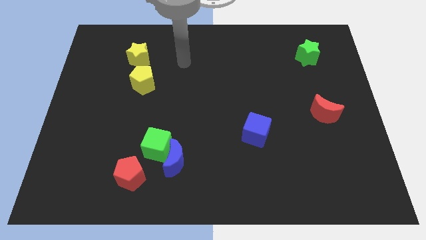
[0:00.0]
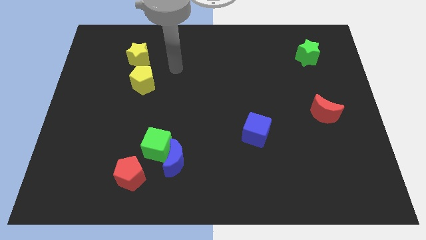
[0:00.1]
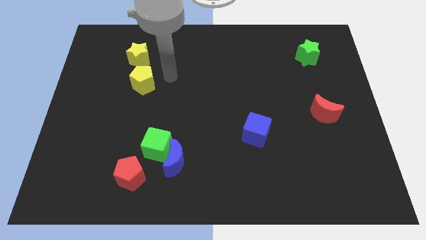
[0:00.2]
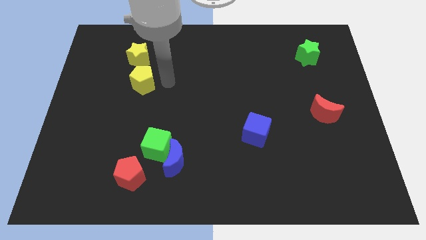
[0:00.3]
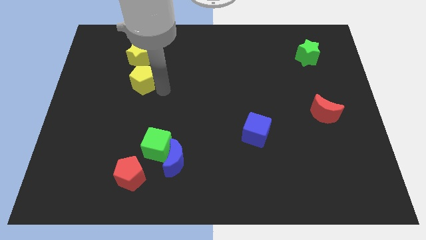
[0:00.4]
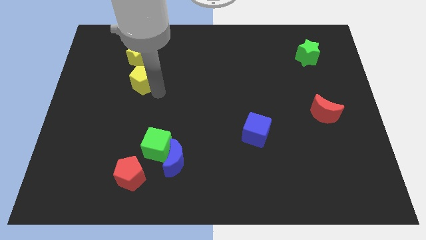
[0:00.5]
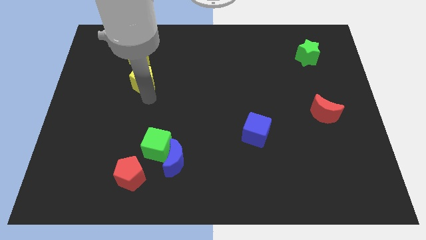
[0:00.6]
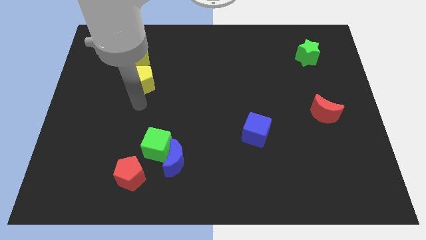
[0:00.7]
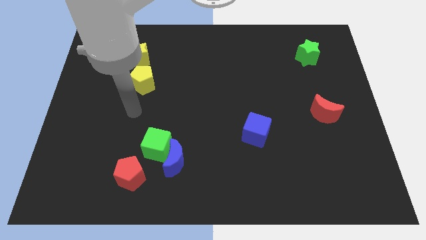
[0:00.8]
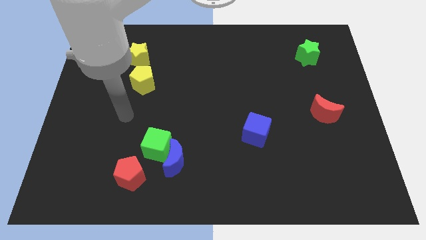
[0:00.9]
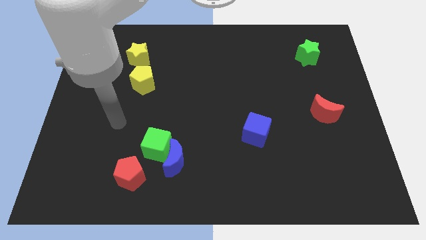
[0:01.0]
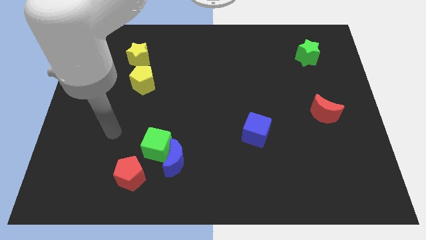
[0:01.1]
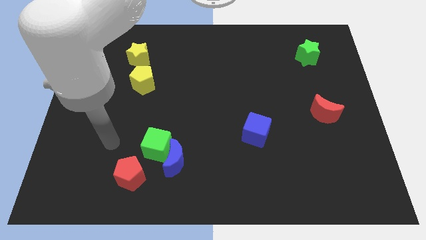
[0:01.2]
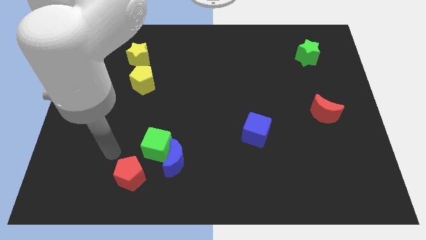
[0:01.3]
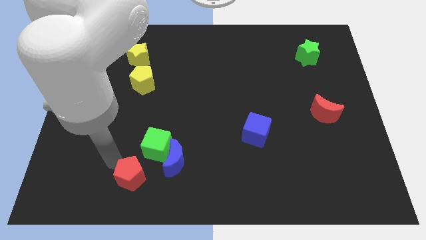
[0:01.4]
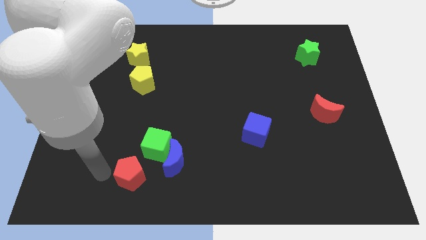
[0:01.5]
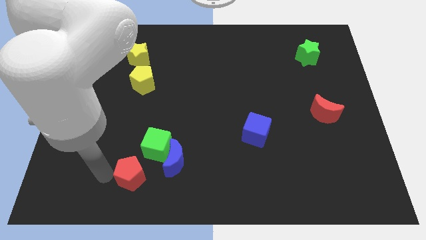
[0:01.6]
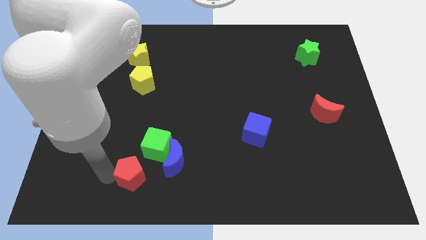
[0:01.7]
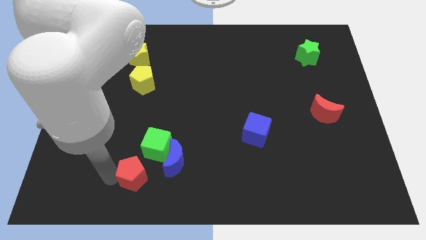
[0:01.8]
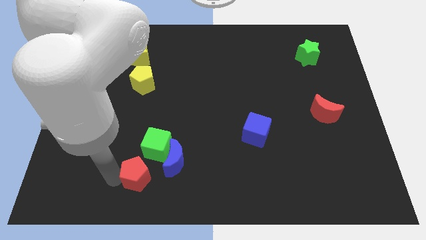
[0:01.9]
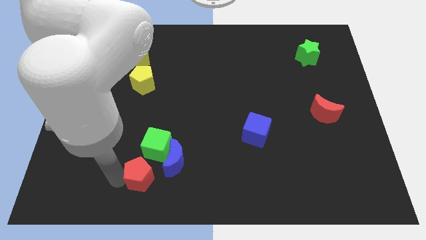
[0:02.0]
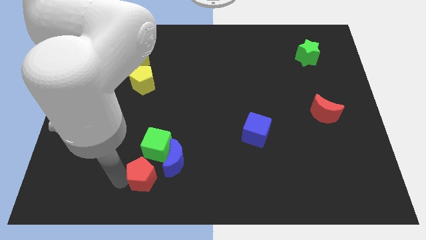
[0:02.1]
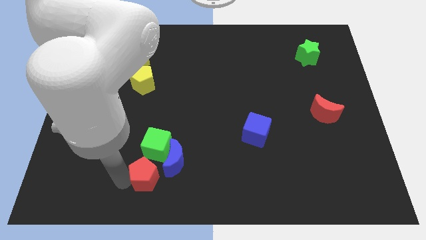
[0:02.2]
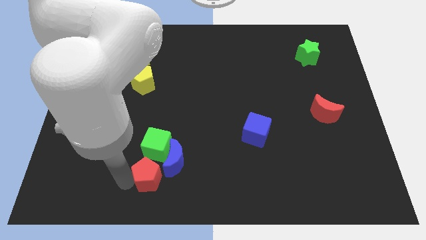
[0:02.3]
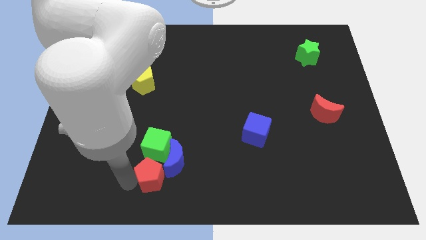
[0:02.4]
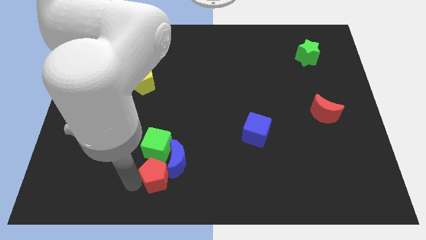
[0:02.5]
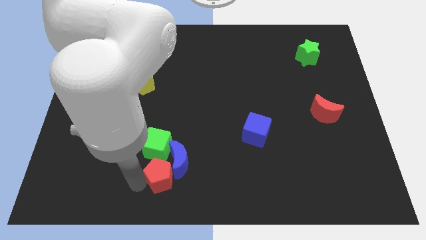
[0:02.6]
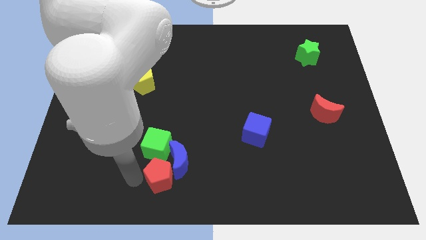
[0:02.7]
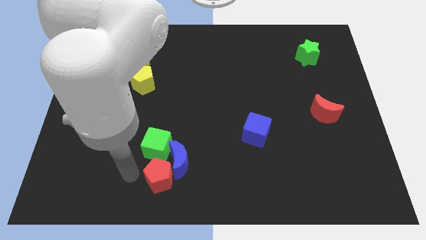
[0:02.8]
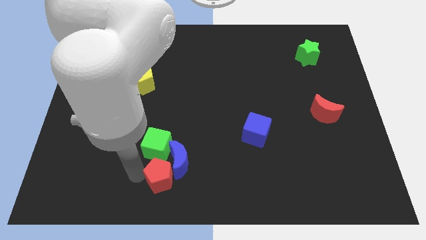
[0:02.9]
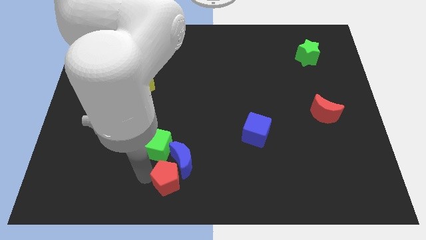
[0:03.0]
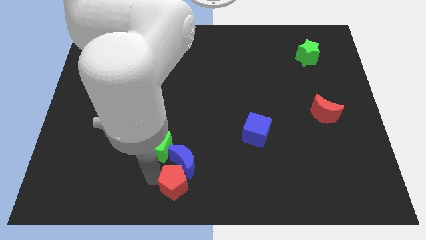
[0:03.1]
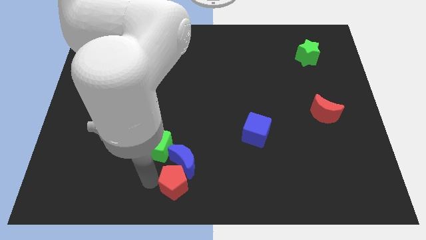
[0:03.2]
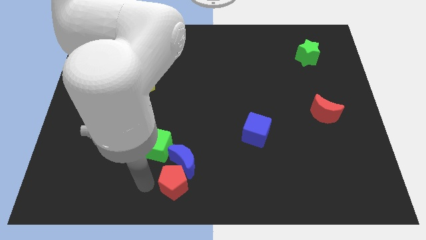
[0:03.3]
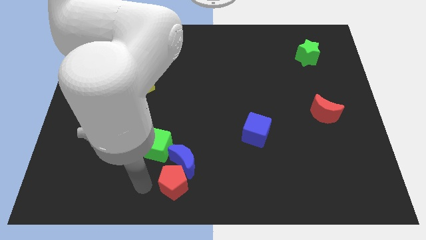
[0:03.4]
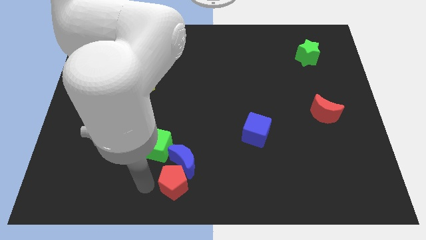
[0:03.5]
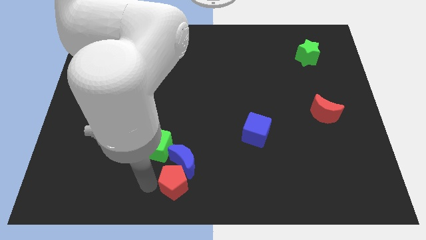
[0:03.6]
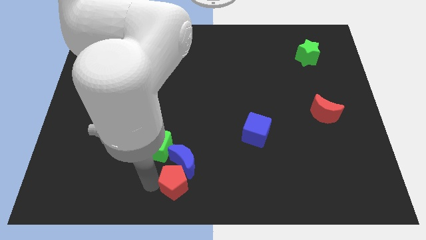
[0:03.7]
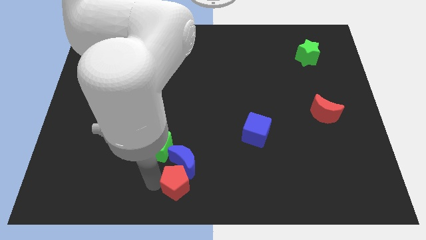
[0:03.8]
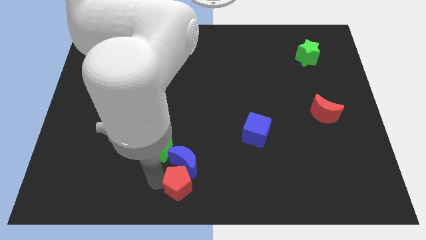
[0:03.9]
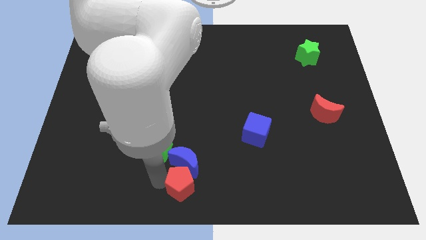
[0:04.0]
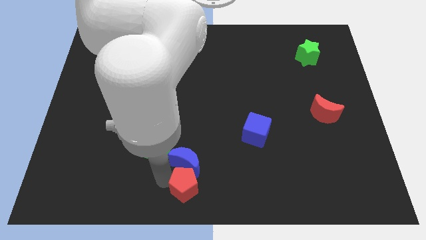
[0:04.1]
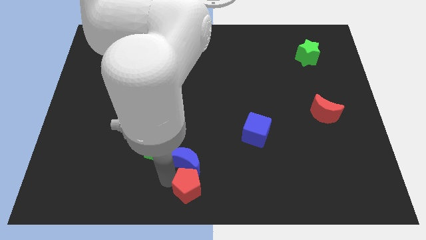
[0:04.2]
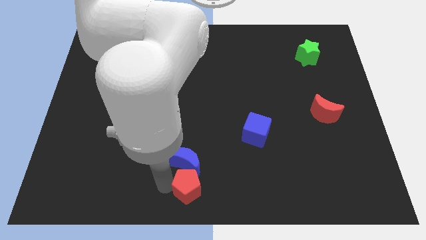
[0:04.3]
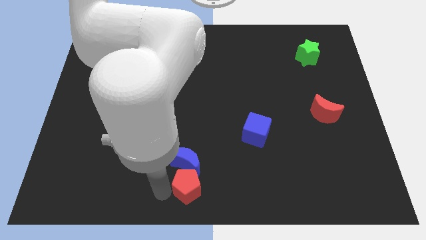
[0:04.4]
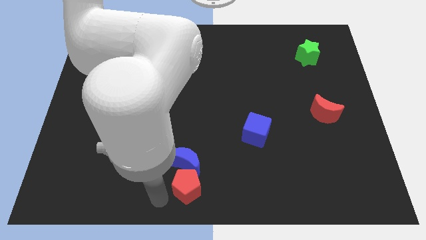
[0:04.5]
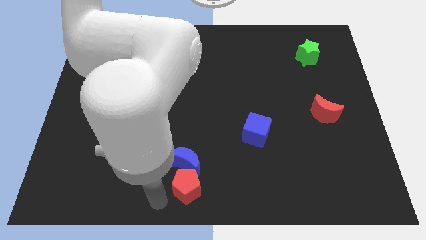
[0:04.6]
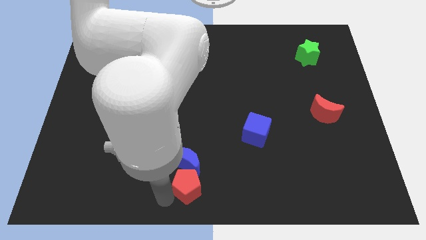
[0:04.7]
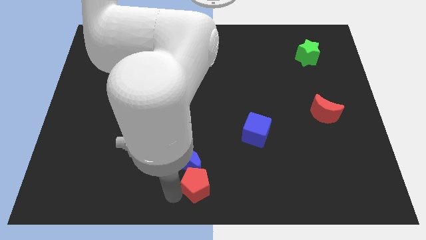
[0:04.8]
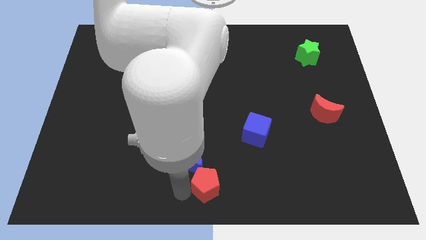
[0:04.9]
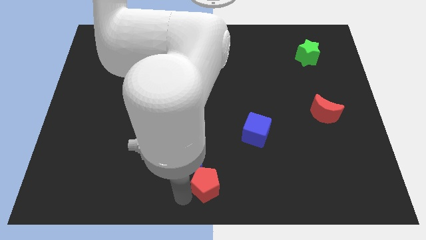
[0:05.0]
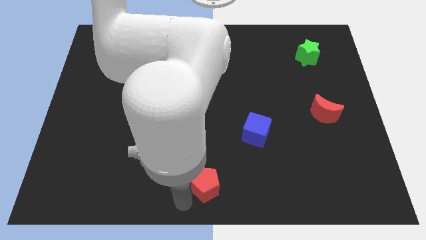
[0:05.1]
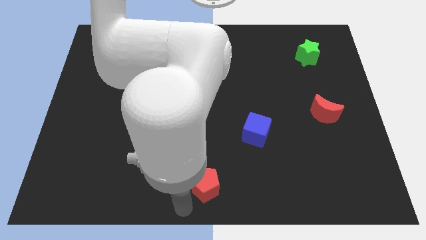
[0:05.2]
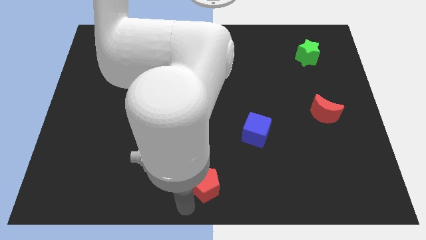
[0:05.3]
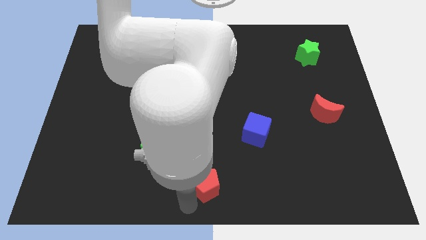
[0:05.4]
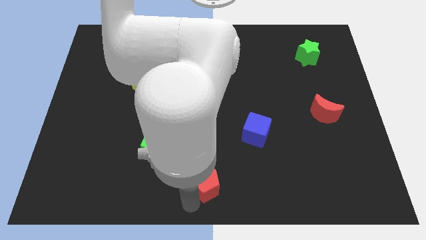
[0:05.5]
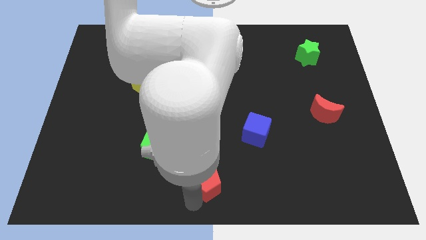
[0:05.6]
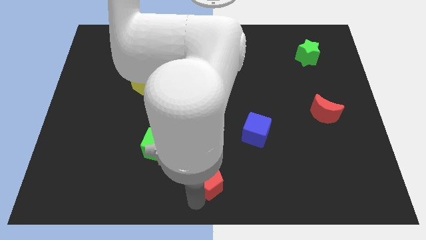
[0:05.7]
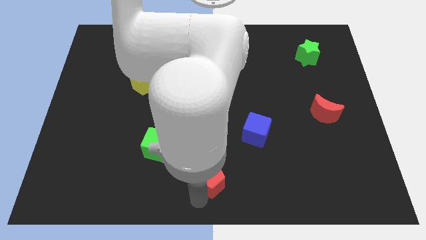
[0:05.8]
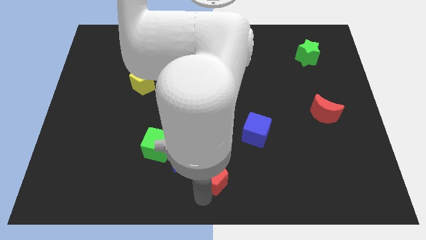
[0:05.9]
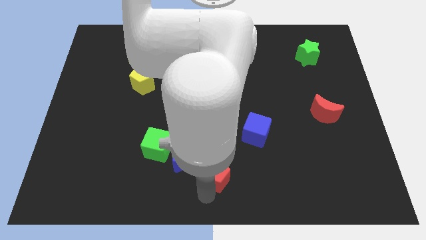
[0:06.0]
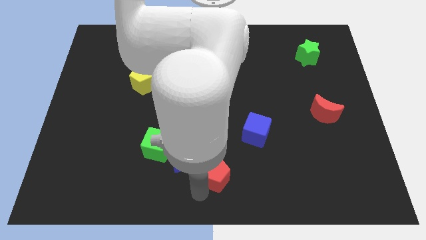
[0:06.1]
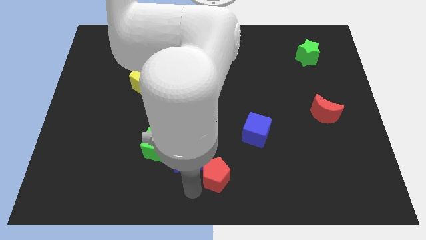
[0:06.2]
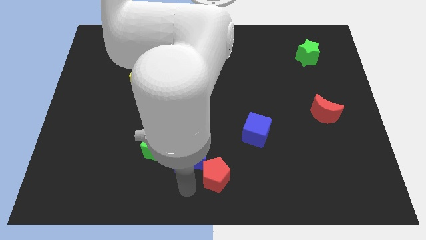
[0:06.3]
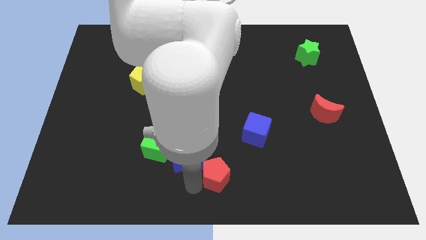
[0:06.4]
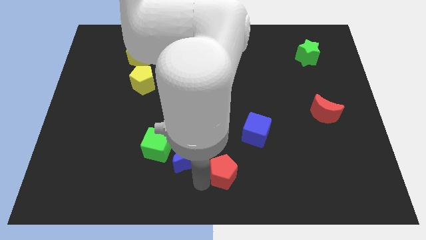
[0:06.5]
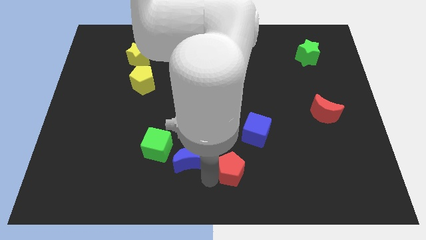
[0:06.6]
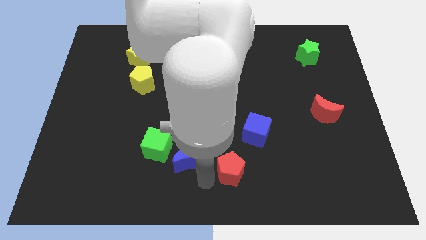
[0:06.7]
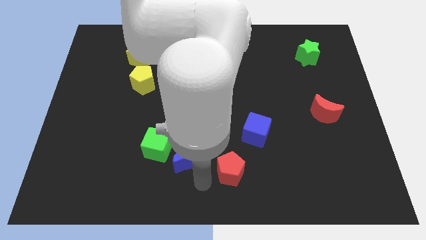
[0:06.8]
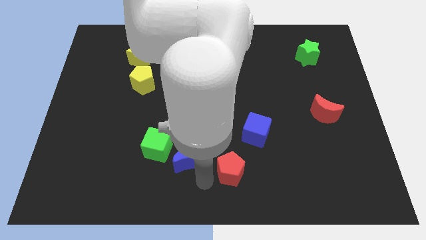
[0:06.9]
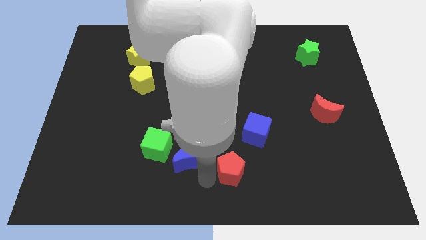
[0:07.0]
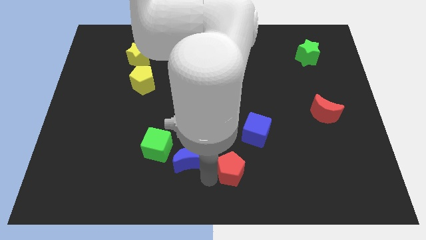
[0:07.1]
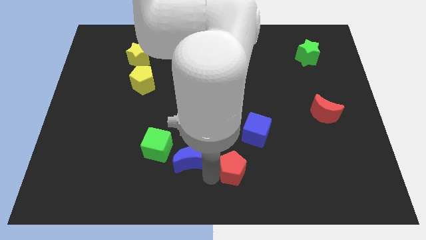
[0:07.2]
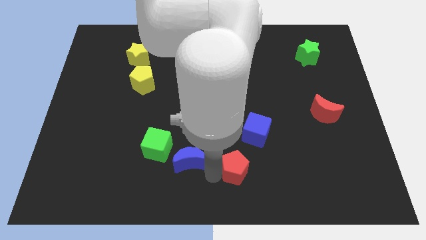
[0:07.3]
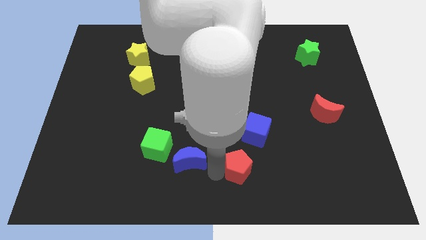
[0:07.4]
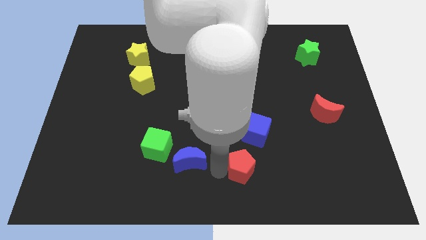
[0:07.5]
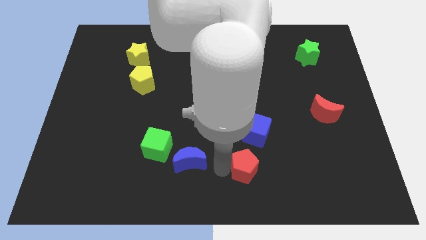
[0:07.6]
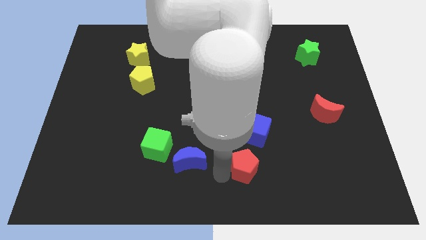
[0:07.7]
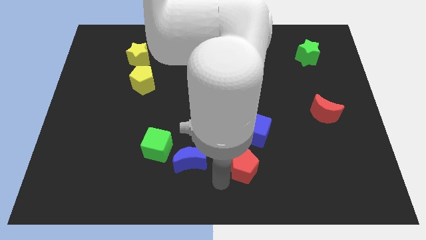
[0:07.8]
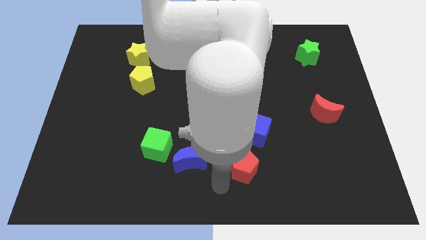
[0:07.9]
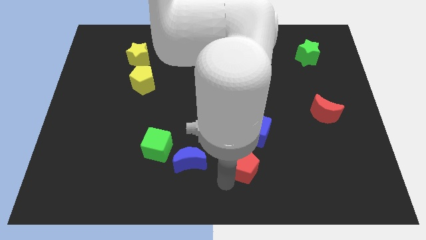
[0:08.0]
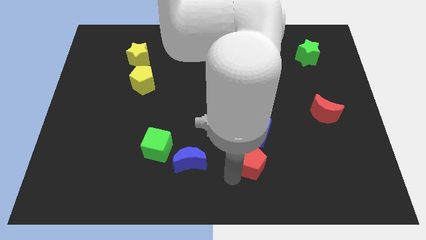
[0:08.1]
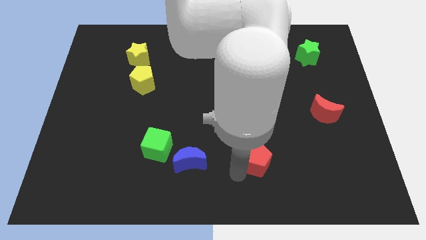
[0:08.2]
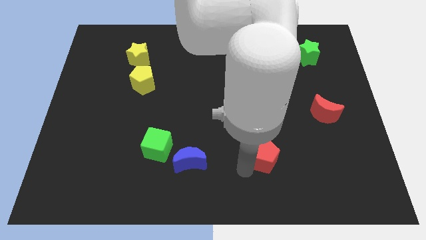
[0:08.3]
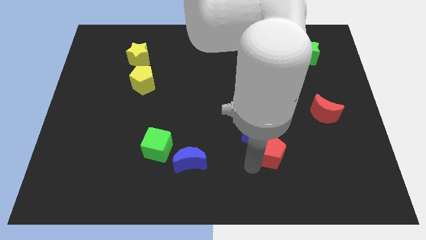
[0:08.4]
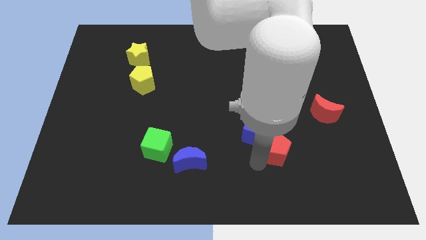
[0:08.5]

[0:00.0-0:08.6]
move the red pentagon just right of the blue cube

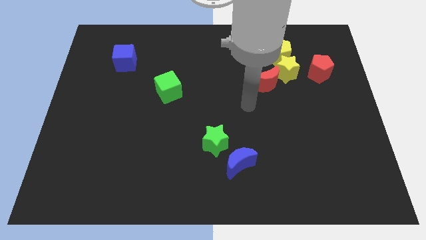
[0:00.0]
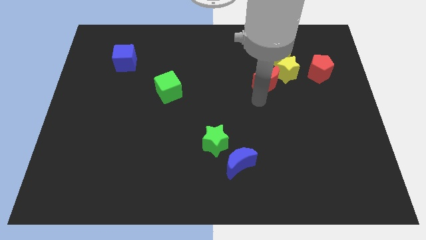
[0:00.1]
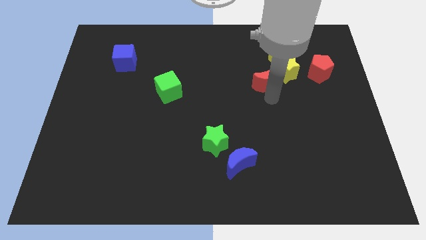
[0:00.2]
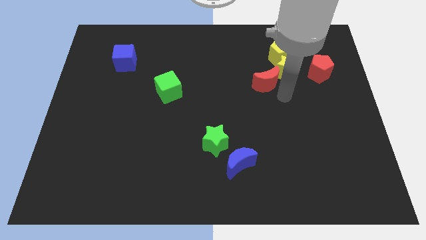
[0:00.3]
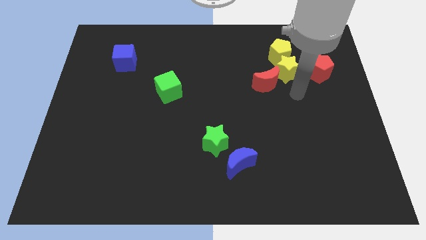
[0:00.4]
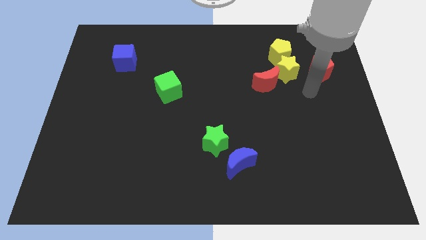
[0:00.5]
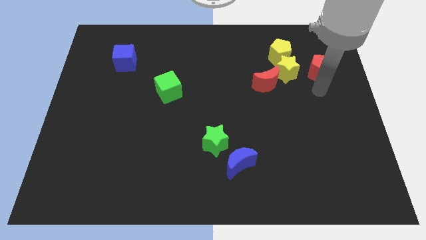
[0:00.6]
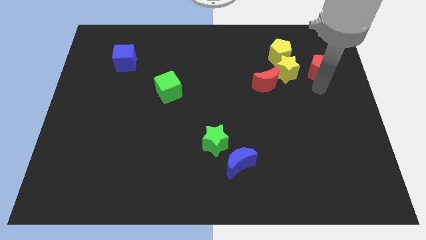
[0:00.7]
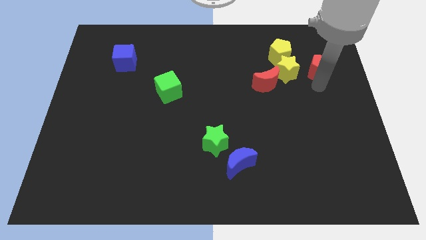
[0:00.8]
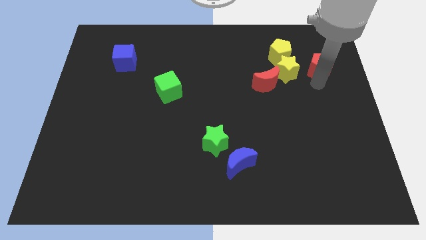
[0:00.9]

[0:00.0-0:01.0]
put the red pentagon just right of the yellow pentagon
